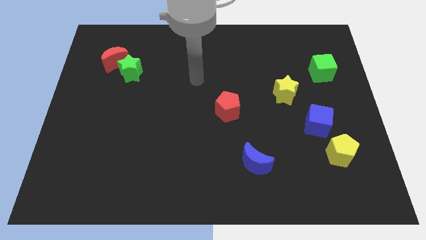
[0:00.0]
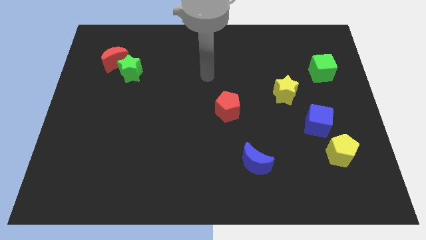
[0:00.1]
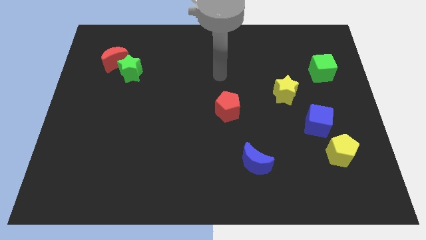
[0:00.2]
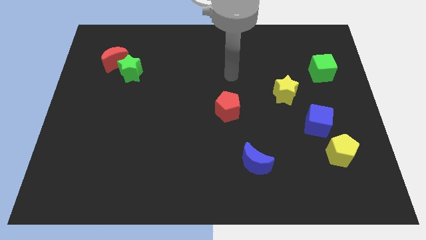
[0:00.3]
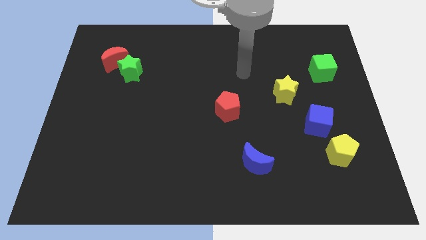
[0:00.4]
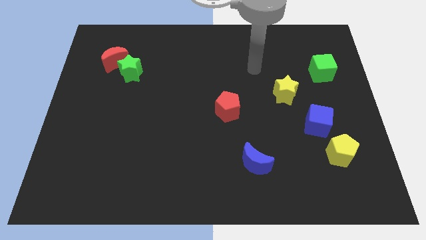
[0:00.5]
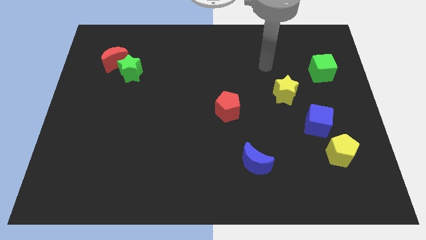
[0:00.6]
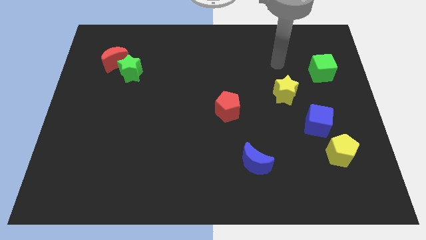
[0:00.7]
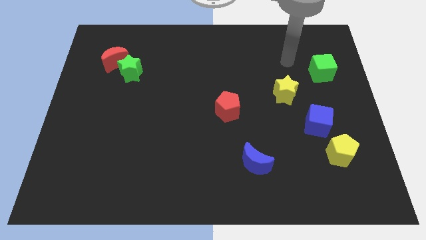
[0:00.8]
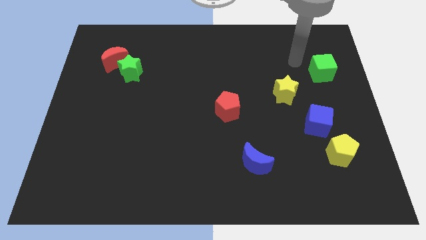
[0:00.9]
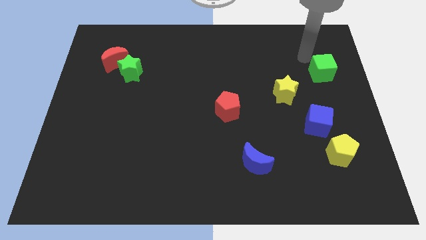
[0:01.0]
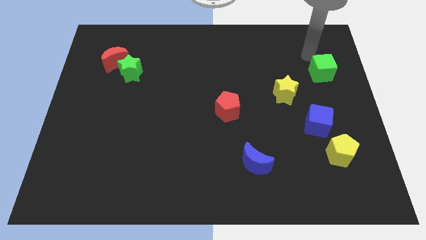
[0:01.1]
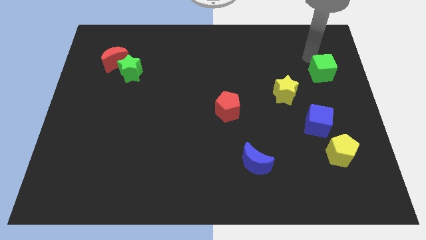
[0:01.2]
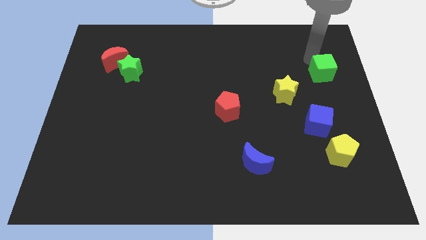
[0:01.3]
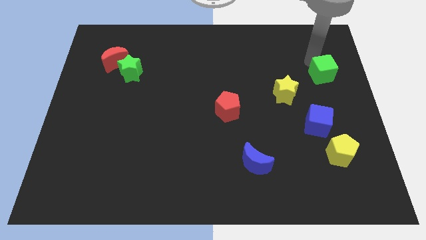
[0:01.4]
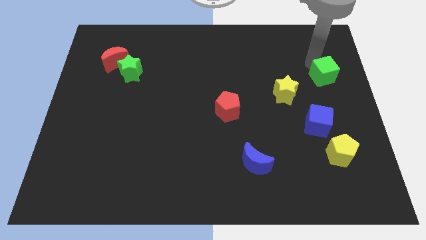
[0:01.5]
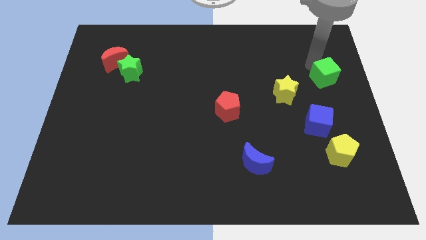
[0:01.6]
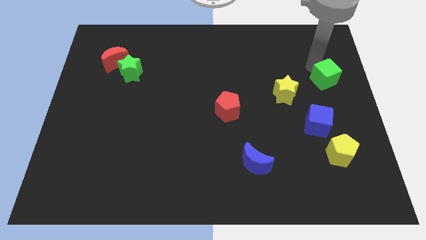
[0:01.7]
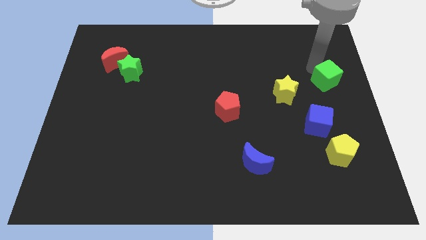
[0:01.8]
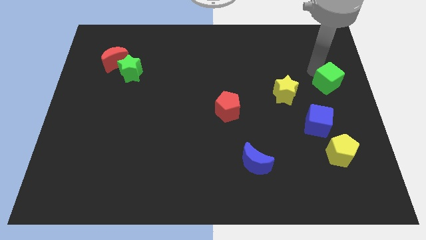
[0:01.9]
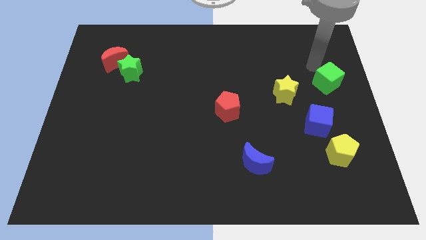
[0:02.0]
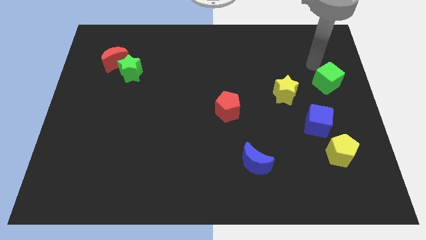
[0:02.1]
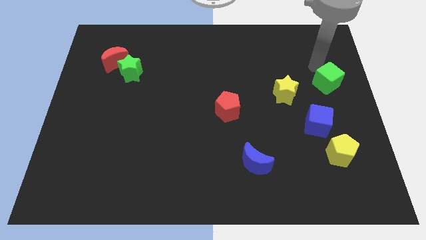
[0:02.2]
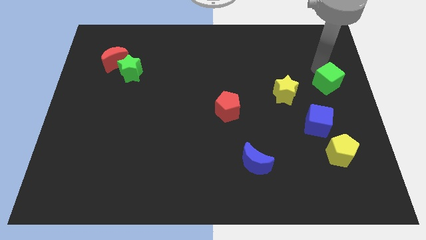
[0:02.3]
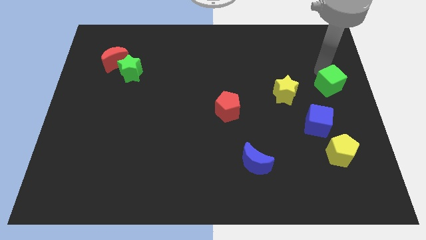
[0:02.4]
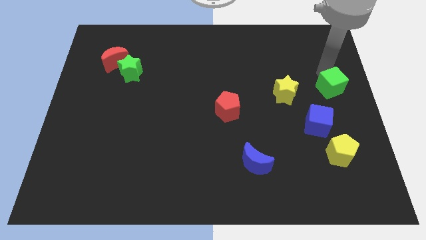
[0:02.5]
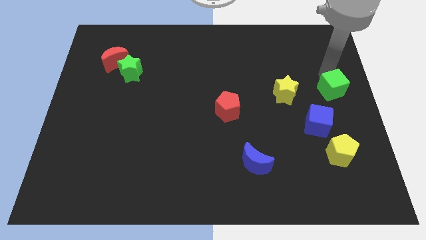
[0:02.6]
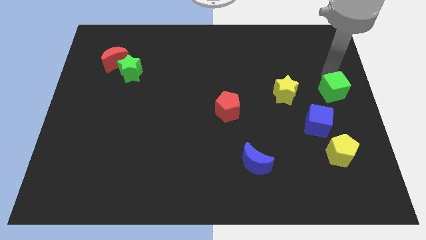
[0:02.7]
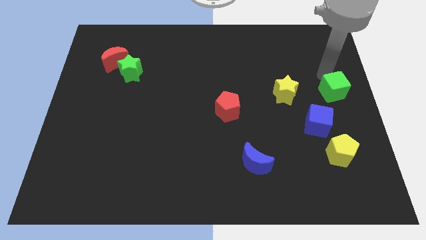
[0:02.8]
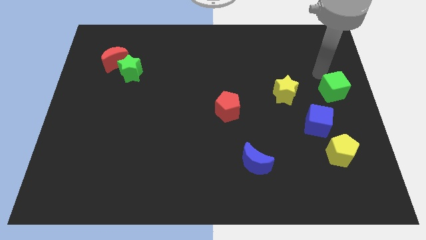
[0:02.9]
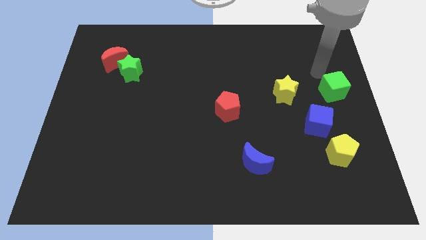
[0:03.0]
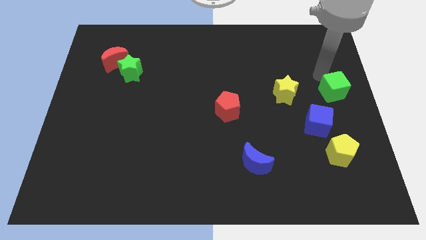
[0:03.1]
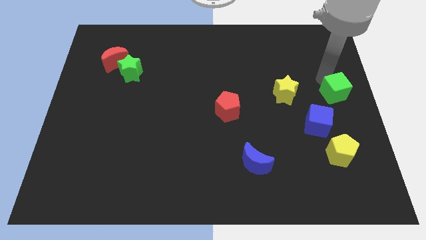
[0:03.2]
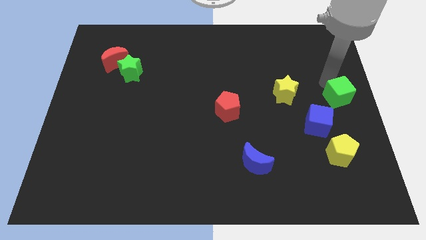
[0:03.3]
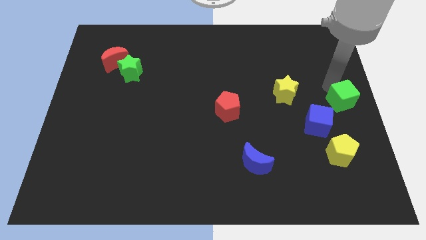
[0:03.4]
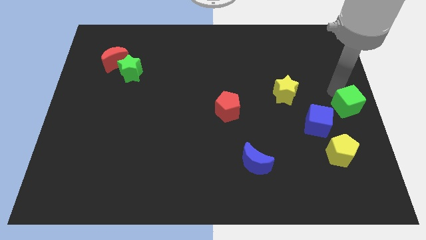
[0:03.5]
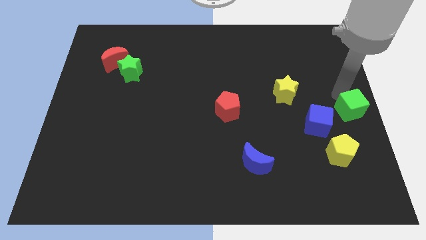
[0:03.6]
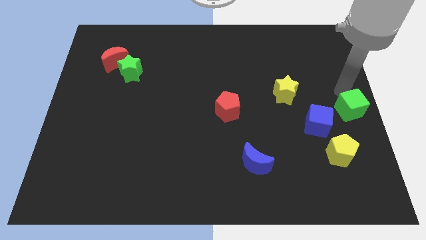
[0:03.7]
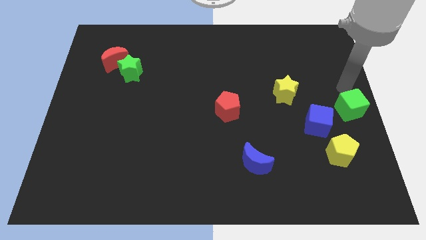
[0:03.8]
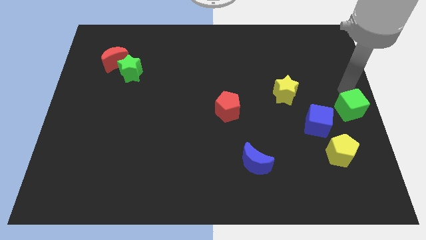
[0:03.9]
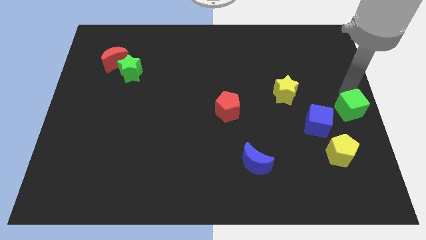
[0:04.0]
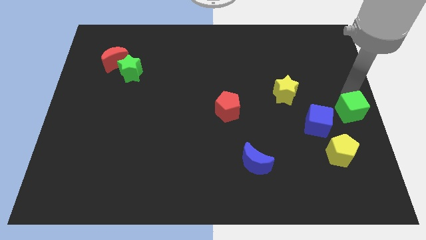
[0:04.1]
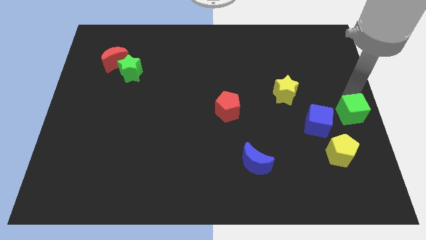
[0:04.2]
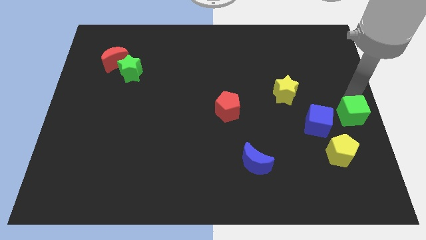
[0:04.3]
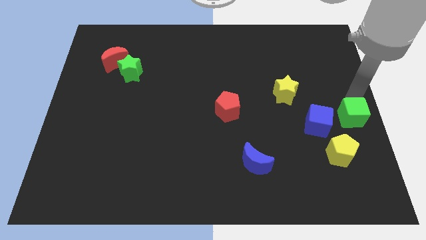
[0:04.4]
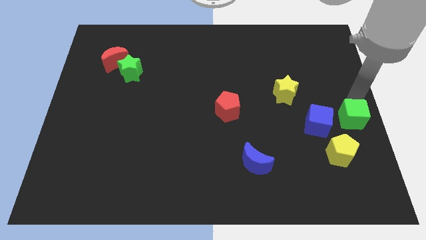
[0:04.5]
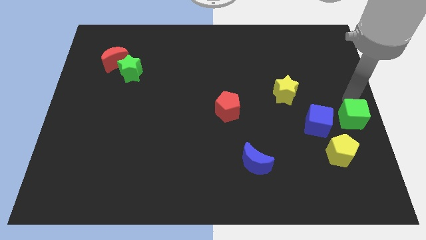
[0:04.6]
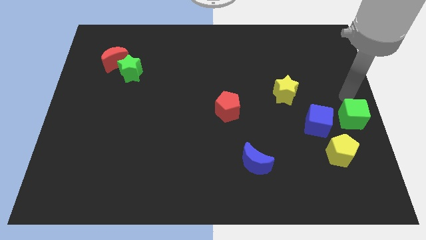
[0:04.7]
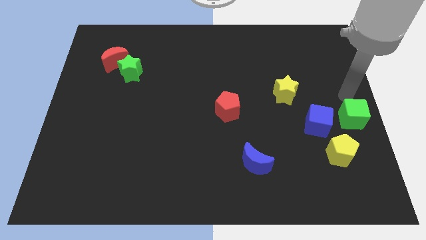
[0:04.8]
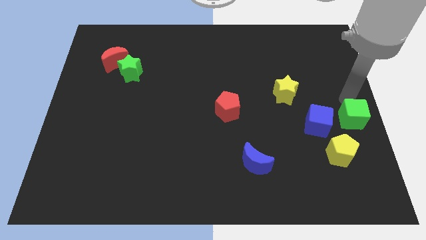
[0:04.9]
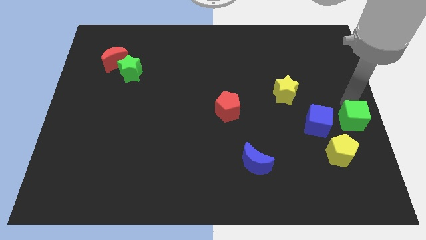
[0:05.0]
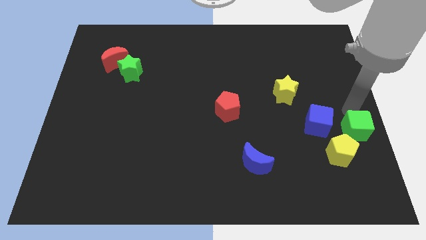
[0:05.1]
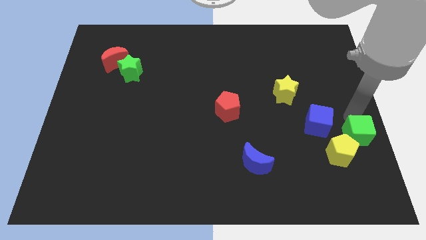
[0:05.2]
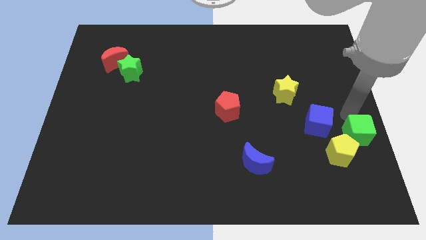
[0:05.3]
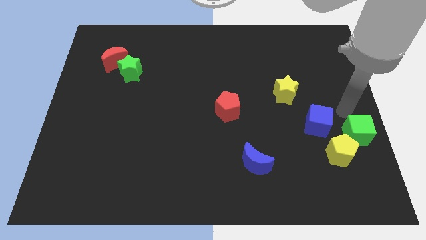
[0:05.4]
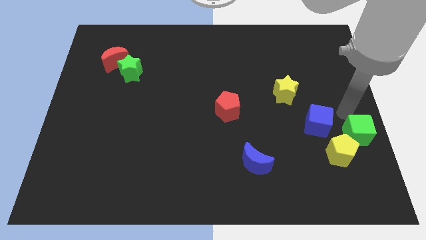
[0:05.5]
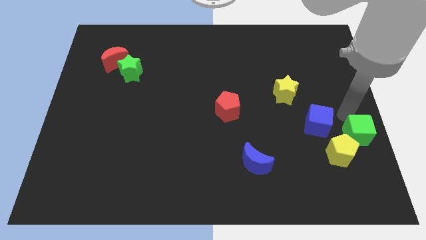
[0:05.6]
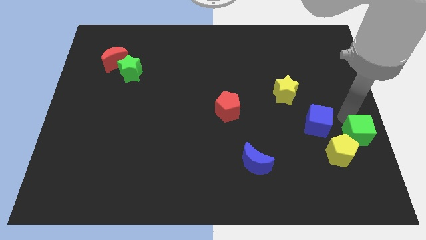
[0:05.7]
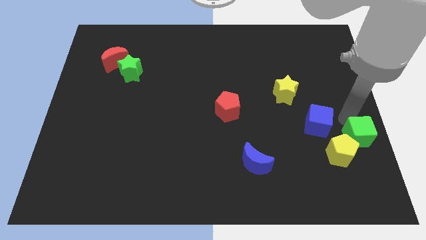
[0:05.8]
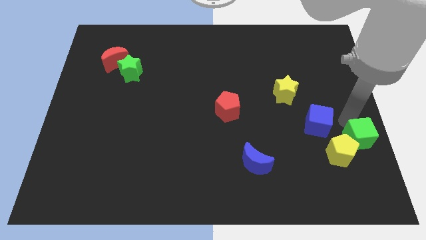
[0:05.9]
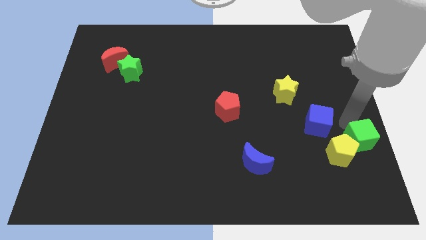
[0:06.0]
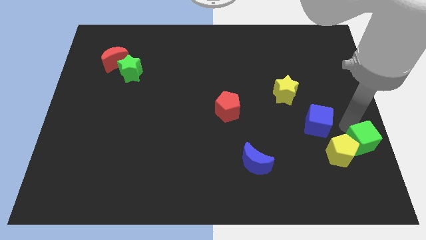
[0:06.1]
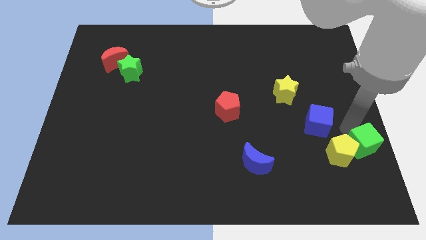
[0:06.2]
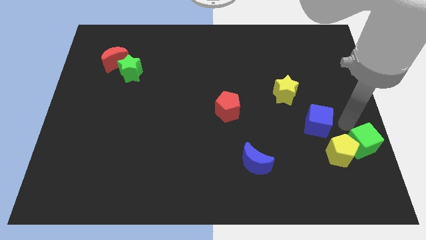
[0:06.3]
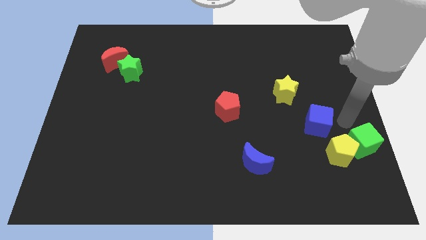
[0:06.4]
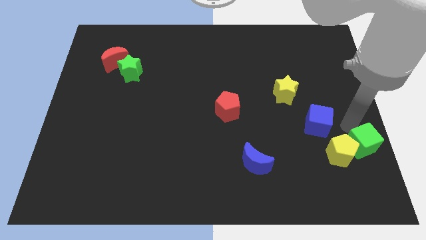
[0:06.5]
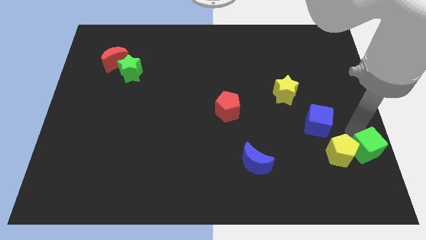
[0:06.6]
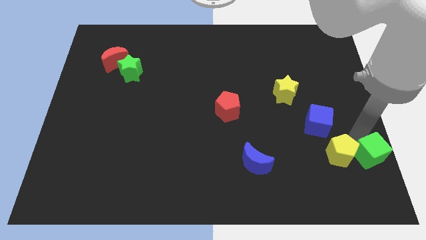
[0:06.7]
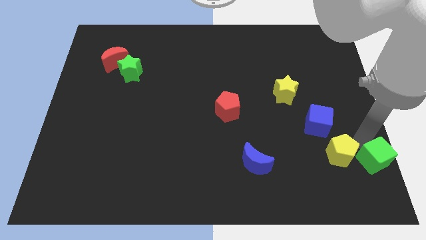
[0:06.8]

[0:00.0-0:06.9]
move the green cube to the lower right corner
